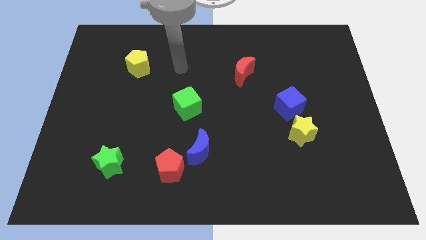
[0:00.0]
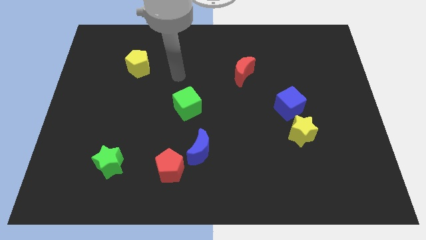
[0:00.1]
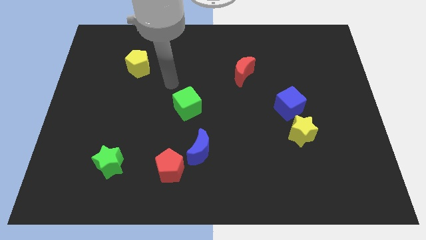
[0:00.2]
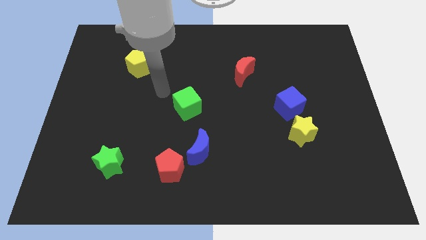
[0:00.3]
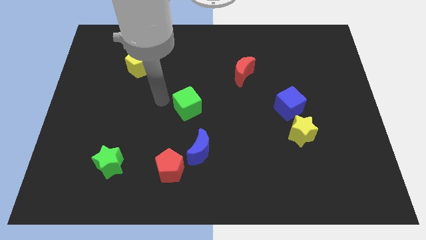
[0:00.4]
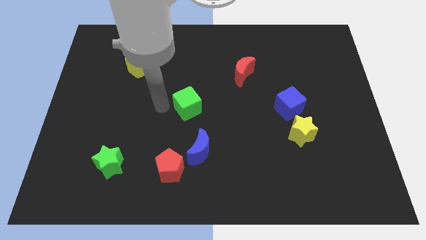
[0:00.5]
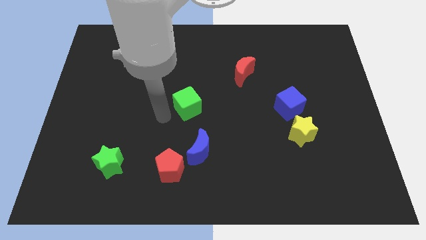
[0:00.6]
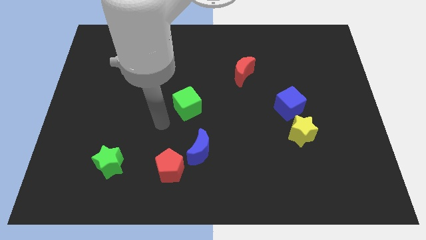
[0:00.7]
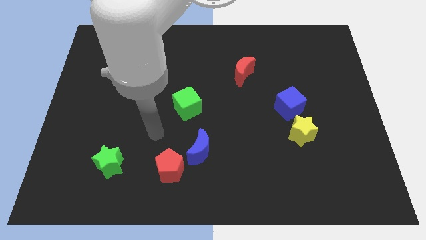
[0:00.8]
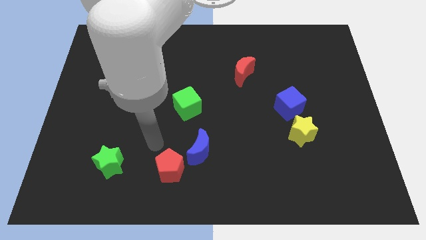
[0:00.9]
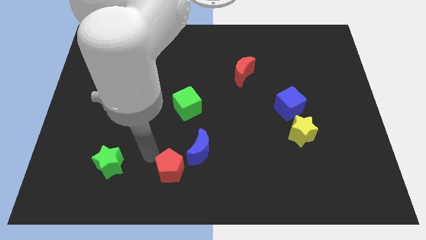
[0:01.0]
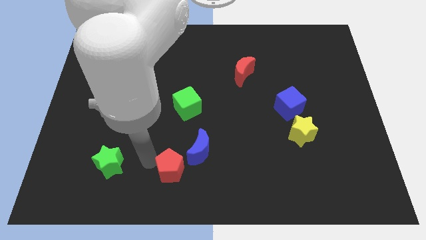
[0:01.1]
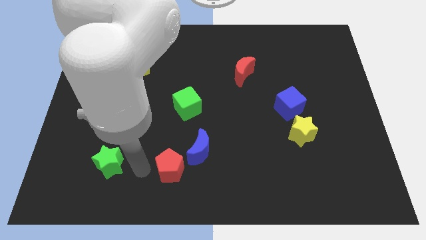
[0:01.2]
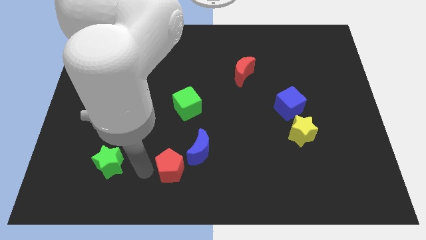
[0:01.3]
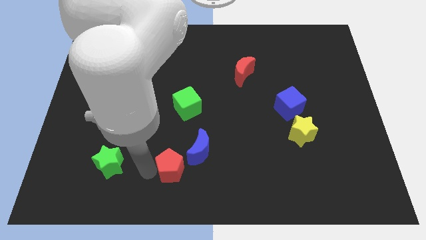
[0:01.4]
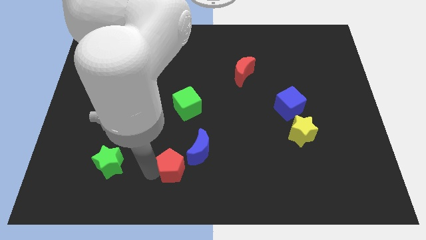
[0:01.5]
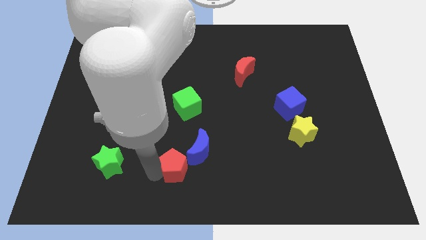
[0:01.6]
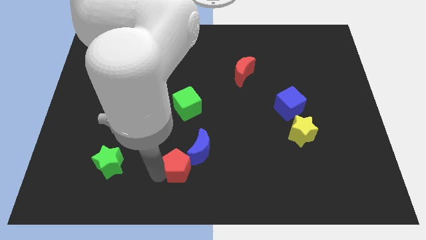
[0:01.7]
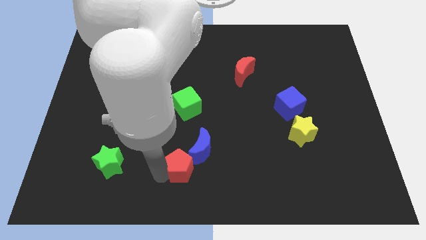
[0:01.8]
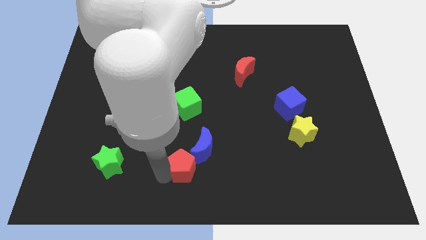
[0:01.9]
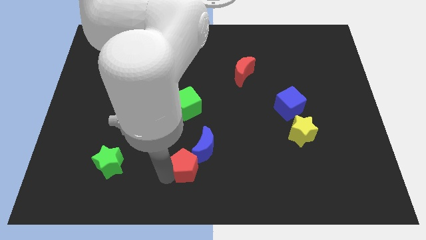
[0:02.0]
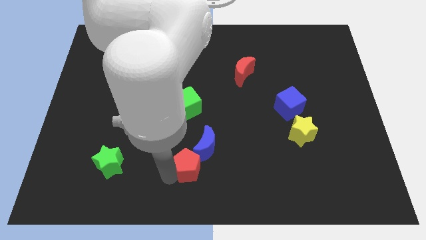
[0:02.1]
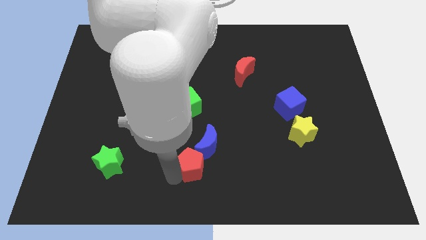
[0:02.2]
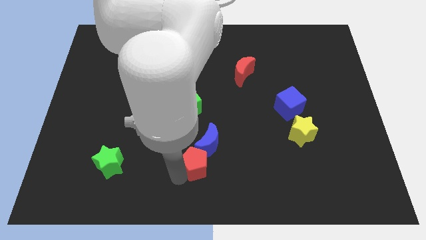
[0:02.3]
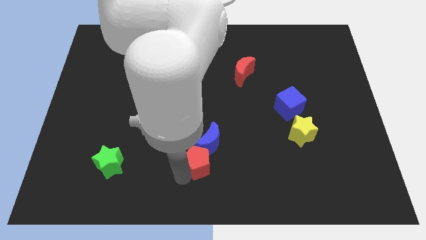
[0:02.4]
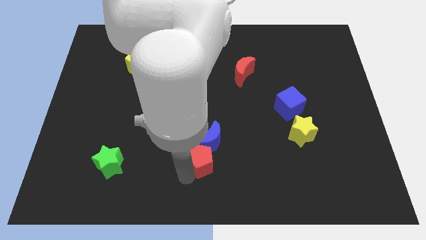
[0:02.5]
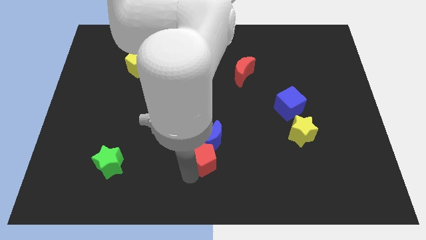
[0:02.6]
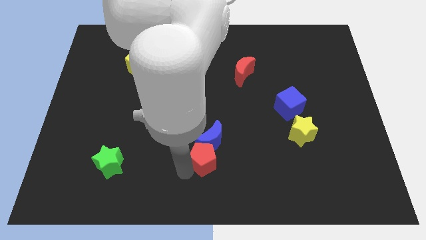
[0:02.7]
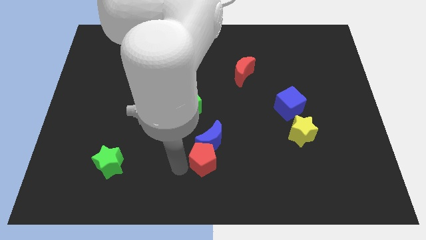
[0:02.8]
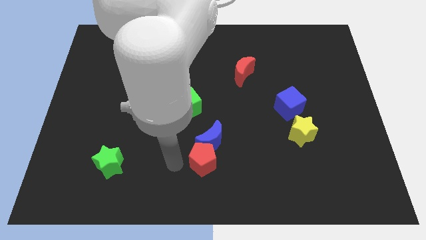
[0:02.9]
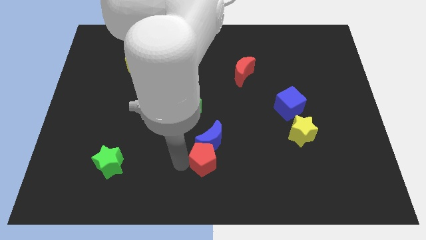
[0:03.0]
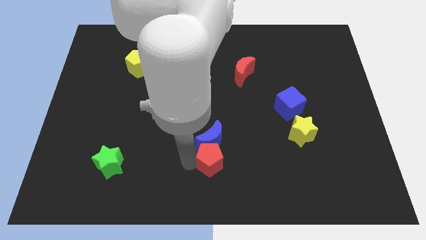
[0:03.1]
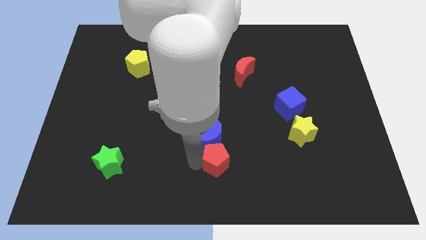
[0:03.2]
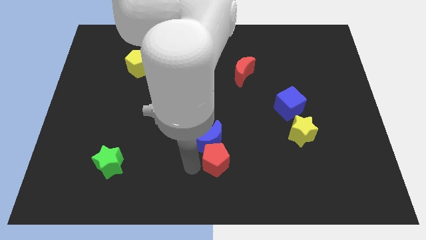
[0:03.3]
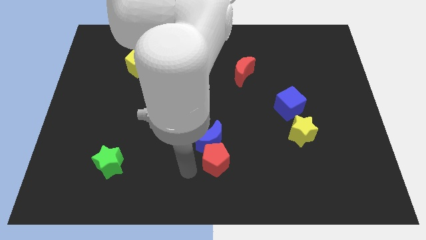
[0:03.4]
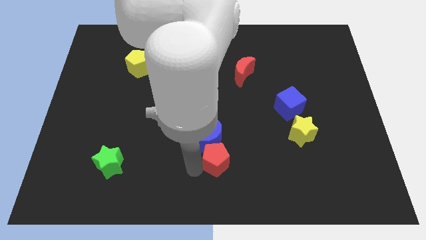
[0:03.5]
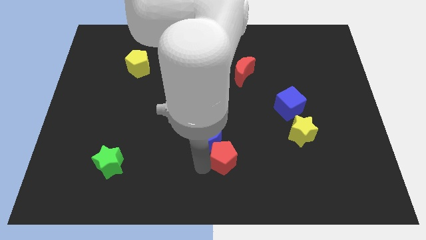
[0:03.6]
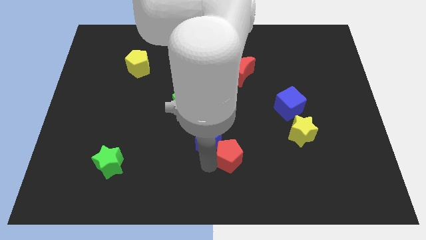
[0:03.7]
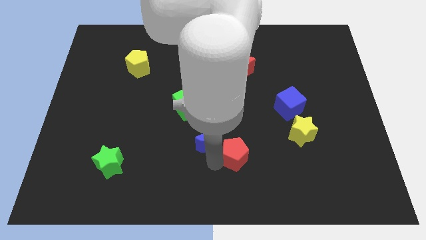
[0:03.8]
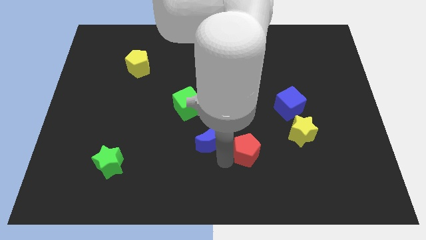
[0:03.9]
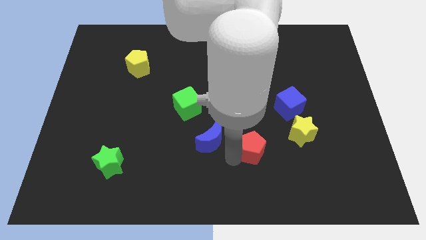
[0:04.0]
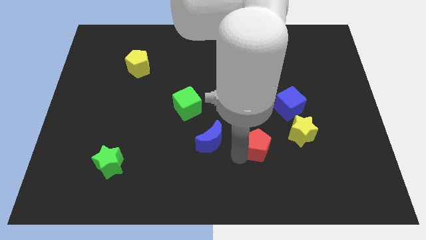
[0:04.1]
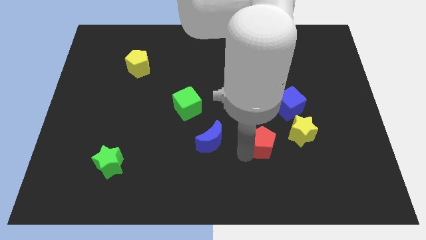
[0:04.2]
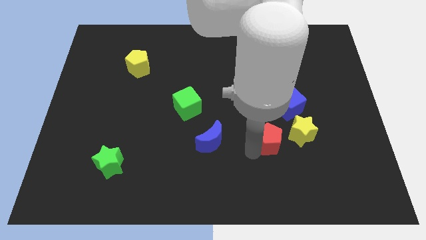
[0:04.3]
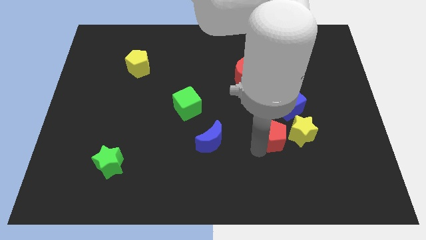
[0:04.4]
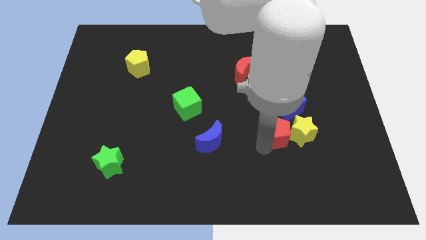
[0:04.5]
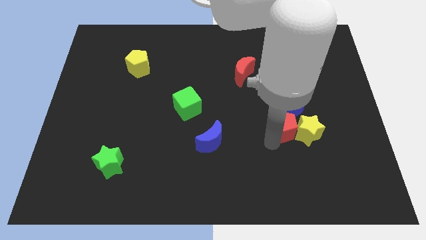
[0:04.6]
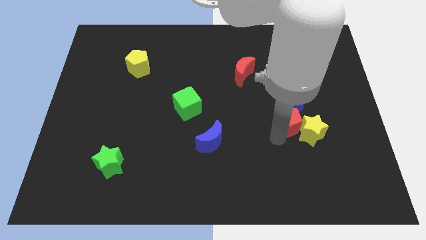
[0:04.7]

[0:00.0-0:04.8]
move the red pentagon close to the blue cube

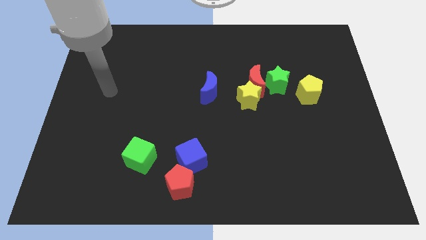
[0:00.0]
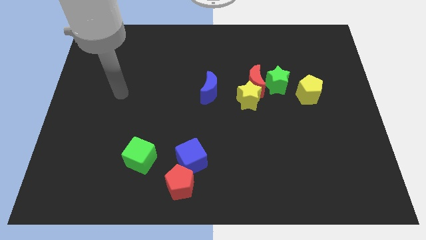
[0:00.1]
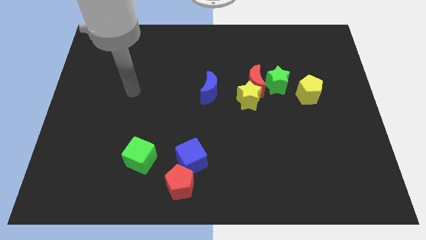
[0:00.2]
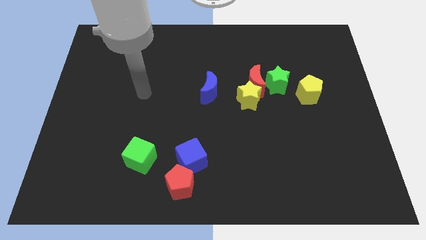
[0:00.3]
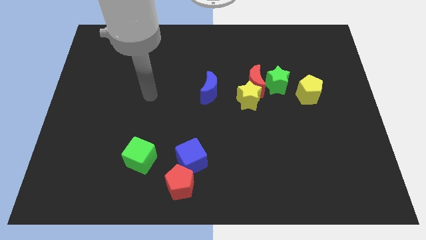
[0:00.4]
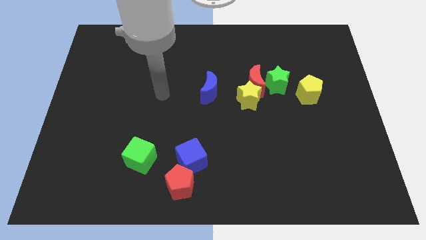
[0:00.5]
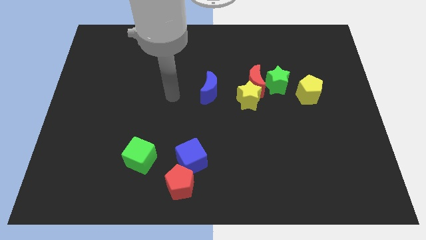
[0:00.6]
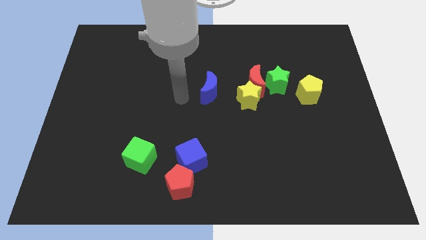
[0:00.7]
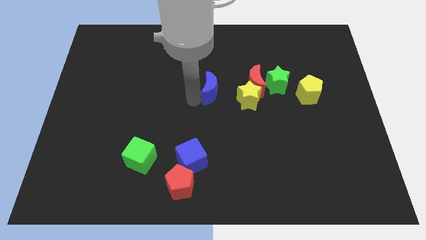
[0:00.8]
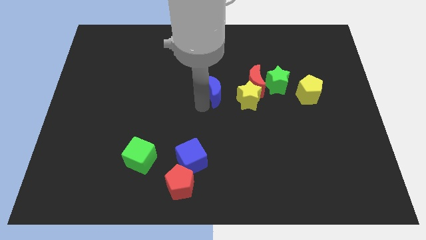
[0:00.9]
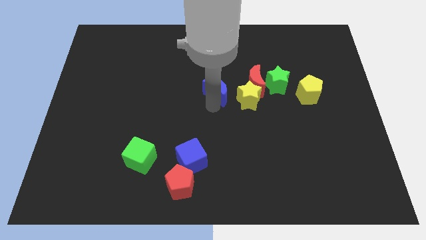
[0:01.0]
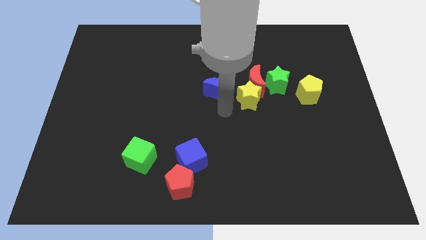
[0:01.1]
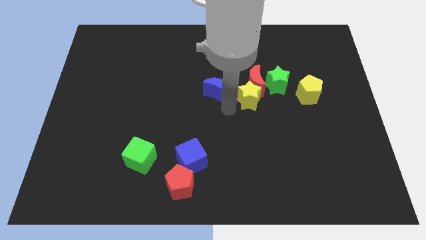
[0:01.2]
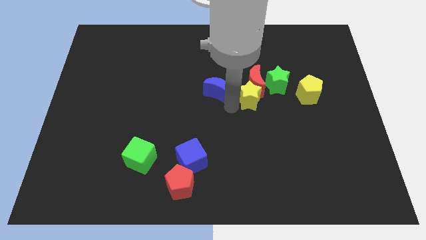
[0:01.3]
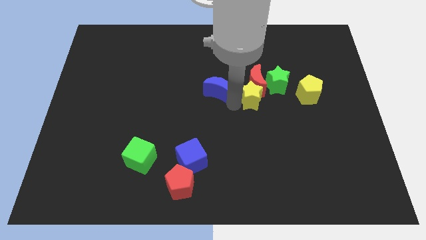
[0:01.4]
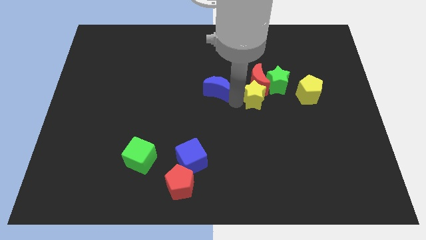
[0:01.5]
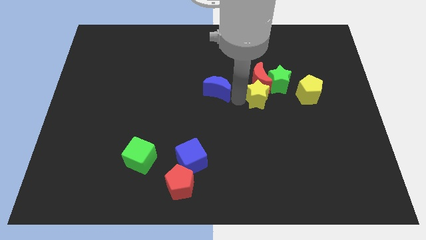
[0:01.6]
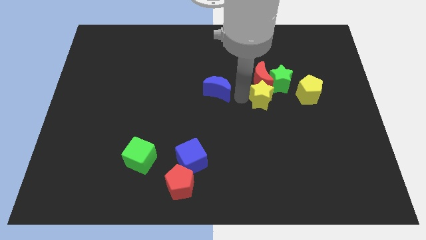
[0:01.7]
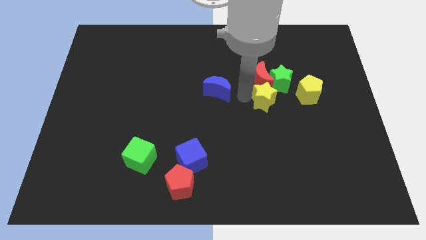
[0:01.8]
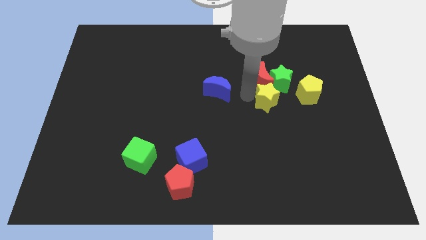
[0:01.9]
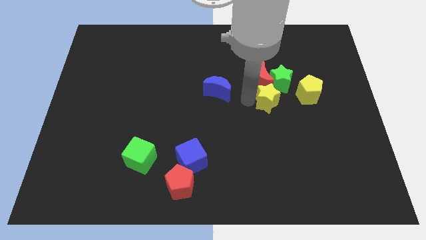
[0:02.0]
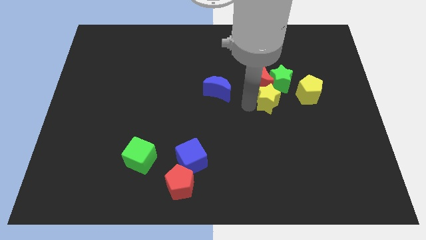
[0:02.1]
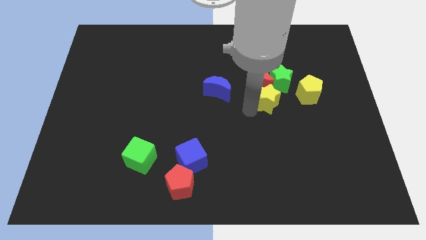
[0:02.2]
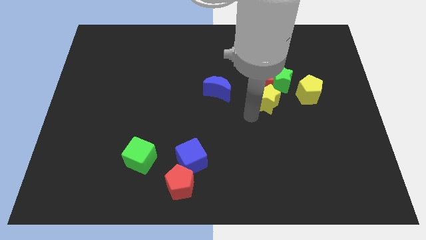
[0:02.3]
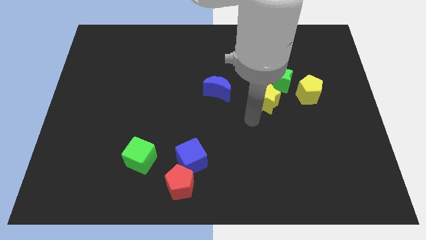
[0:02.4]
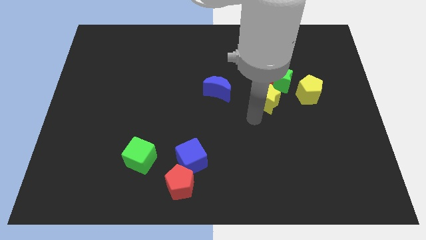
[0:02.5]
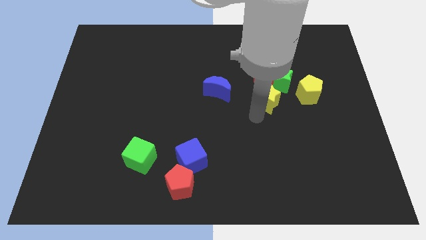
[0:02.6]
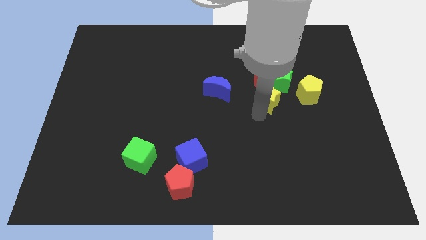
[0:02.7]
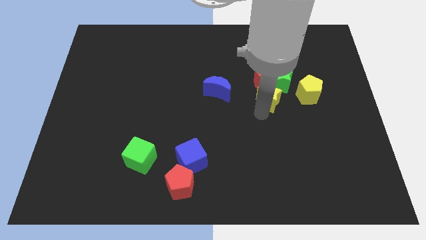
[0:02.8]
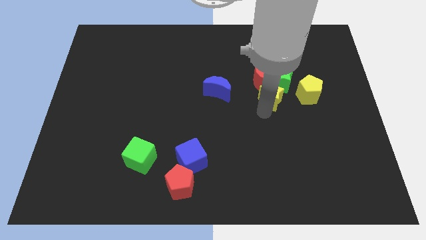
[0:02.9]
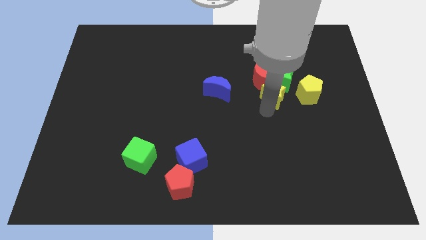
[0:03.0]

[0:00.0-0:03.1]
put the yellow star to the green star
